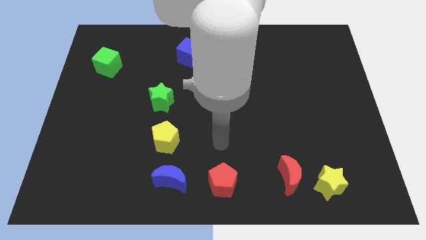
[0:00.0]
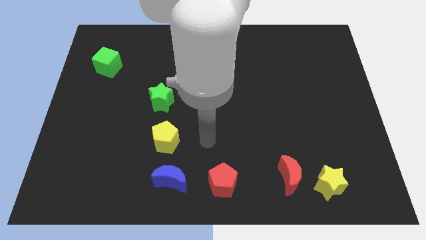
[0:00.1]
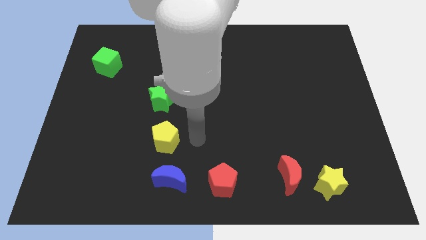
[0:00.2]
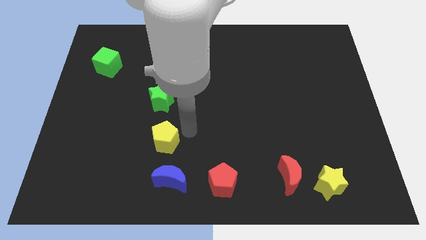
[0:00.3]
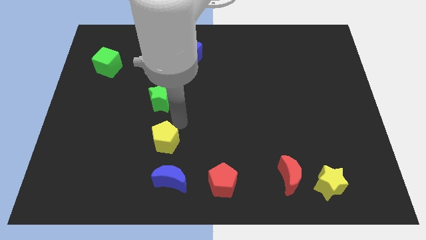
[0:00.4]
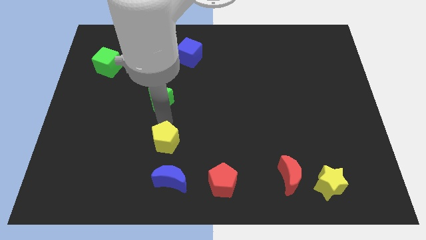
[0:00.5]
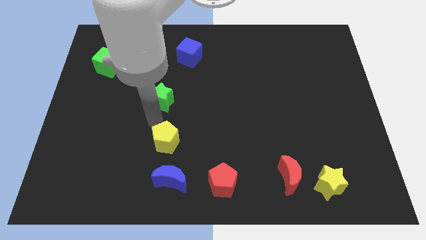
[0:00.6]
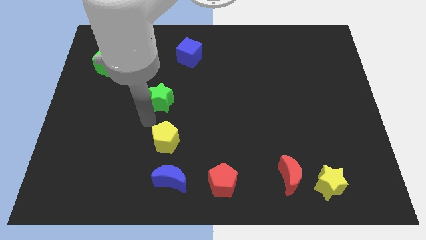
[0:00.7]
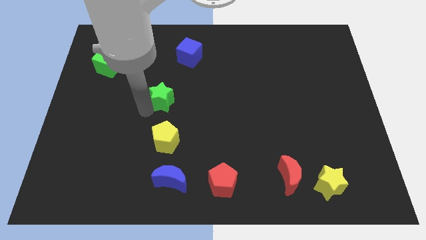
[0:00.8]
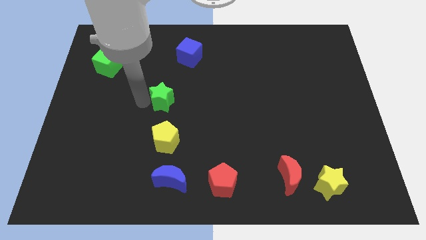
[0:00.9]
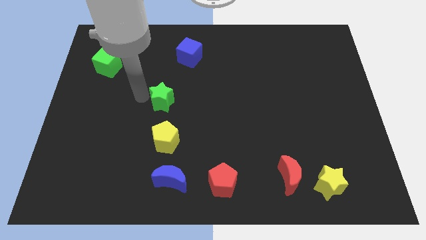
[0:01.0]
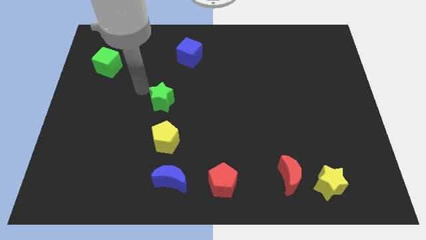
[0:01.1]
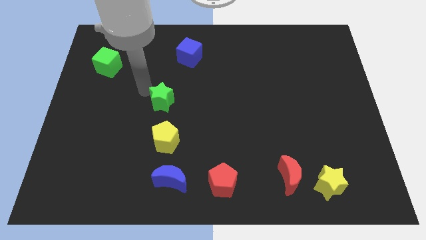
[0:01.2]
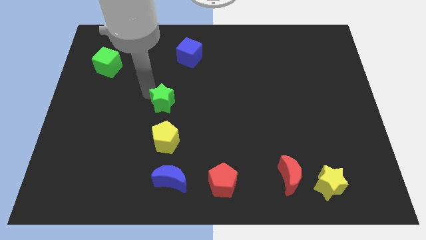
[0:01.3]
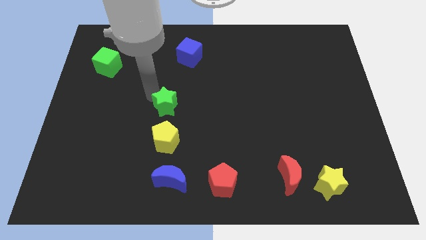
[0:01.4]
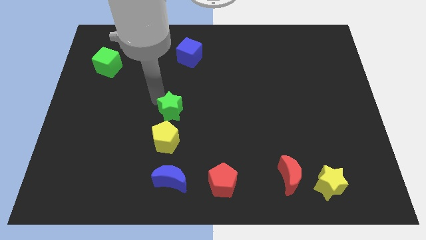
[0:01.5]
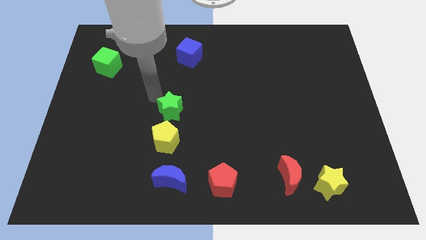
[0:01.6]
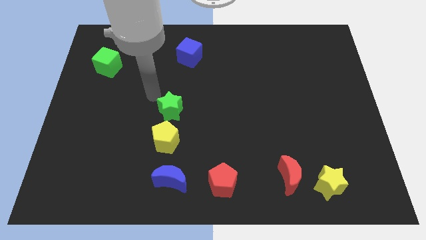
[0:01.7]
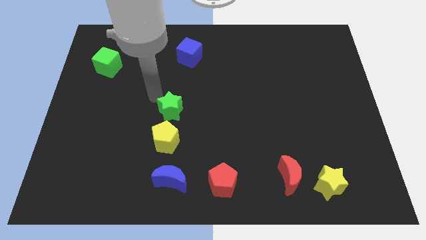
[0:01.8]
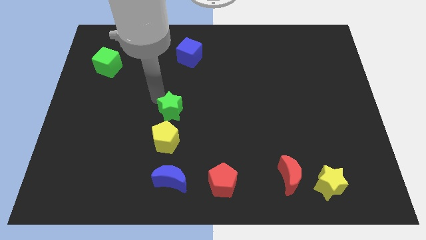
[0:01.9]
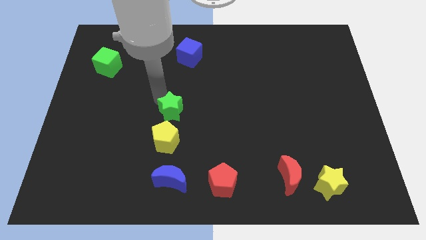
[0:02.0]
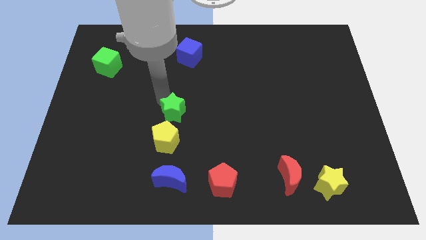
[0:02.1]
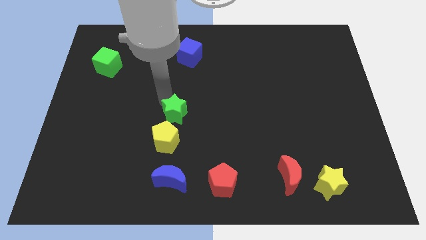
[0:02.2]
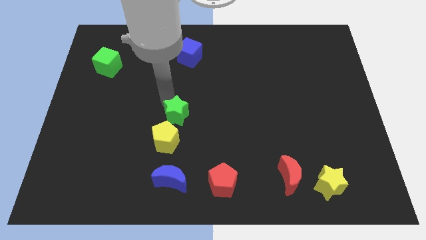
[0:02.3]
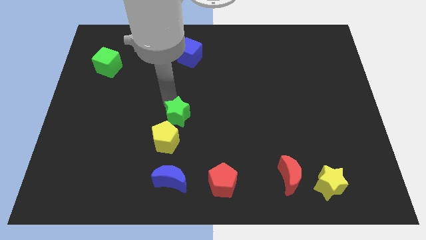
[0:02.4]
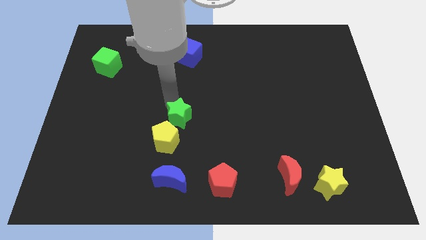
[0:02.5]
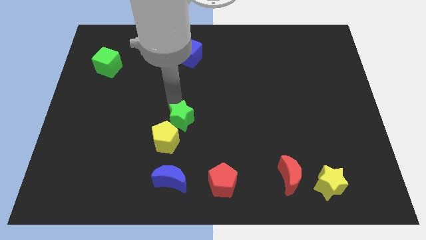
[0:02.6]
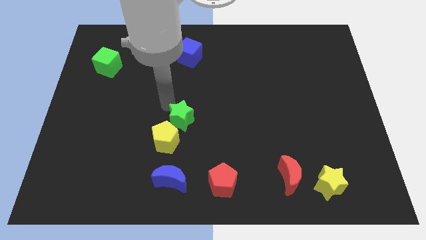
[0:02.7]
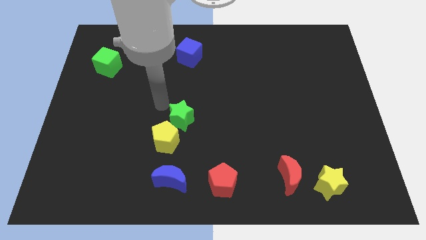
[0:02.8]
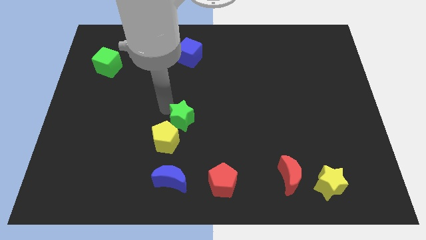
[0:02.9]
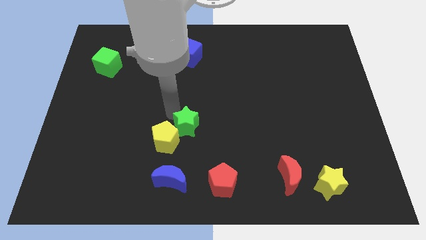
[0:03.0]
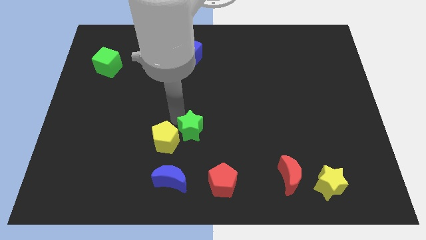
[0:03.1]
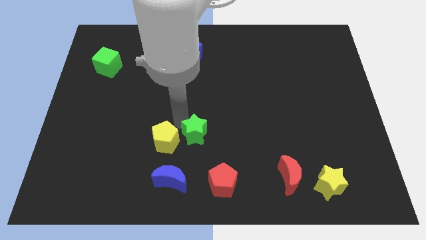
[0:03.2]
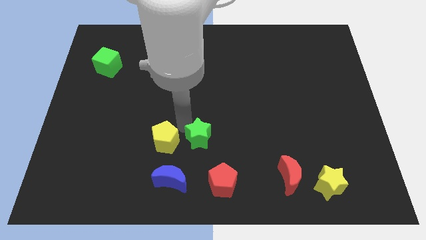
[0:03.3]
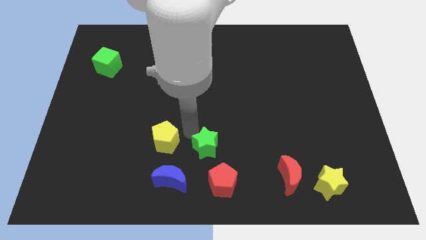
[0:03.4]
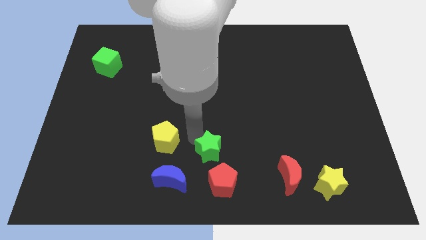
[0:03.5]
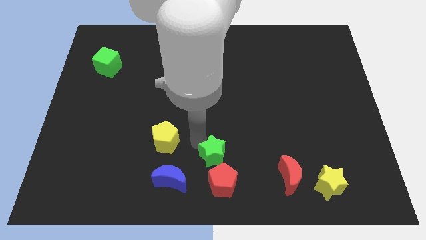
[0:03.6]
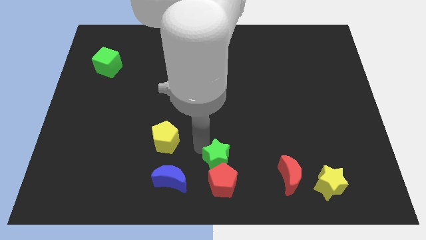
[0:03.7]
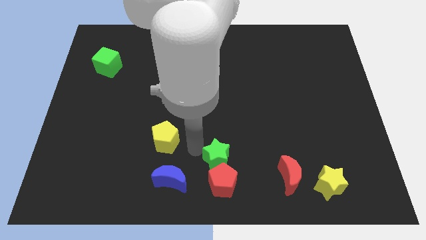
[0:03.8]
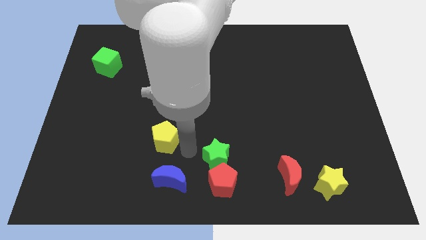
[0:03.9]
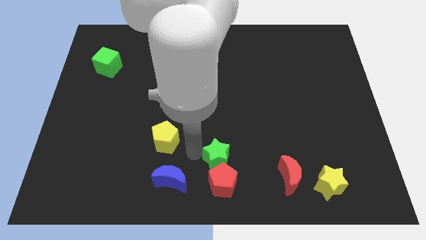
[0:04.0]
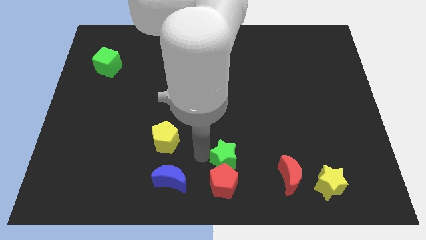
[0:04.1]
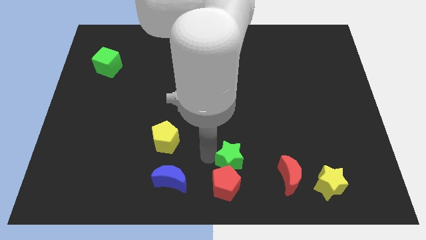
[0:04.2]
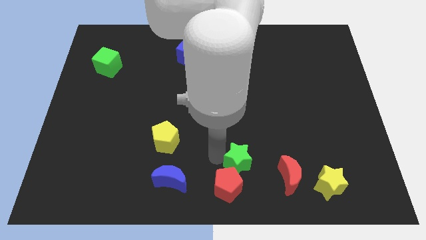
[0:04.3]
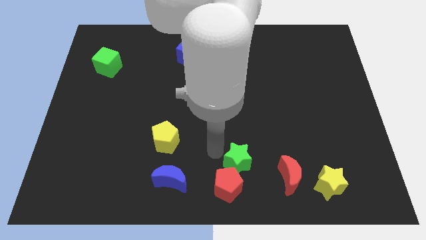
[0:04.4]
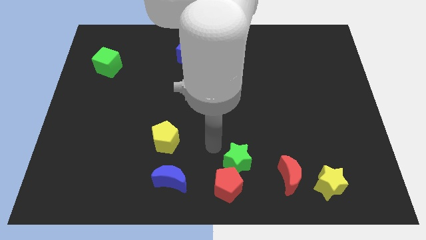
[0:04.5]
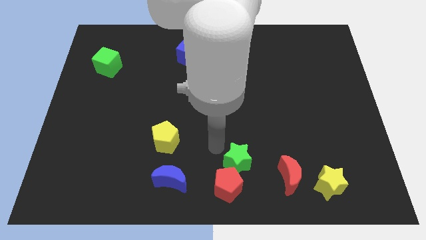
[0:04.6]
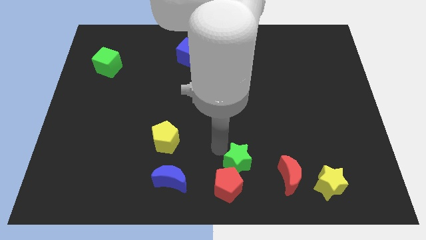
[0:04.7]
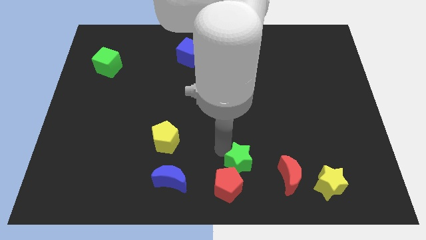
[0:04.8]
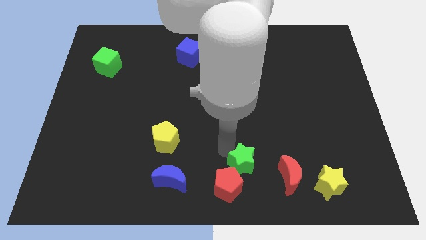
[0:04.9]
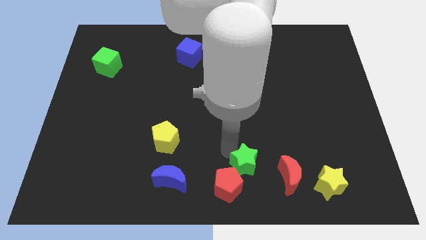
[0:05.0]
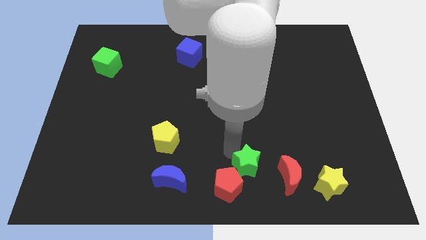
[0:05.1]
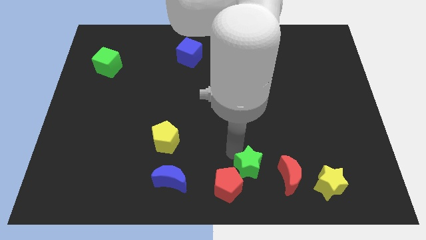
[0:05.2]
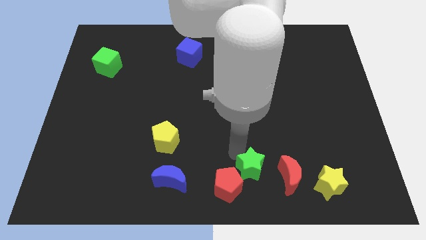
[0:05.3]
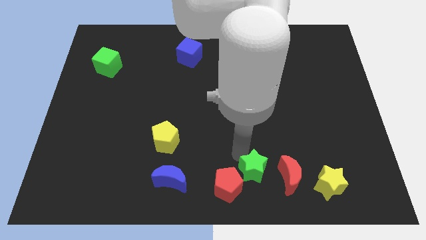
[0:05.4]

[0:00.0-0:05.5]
slide the green star to the left side of the yellow star

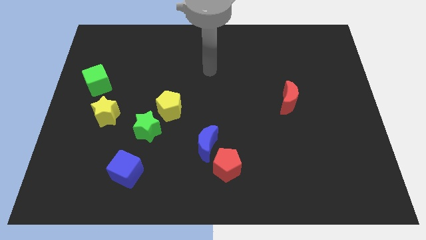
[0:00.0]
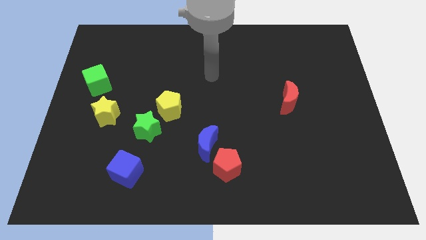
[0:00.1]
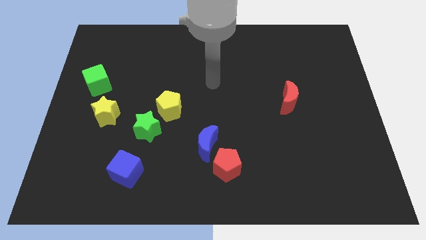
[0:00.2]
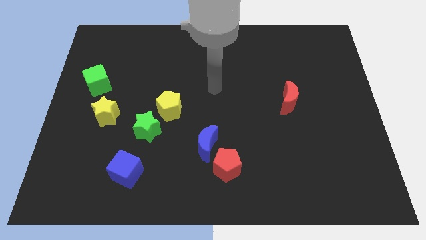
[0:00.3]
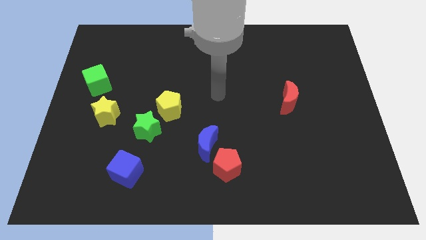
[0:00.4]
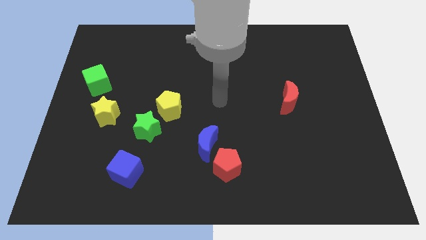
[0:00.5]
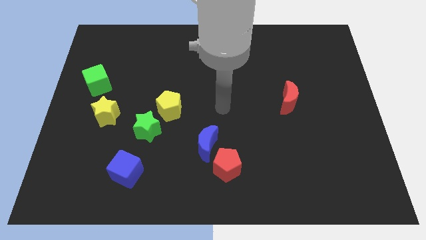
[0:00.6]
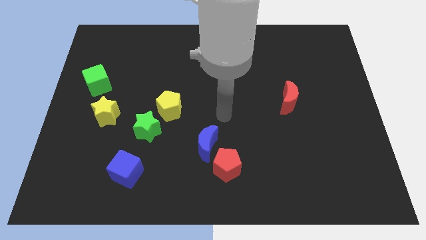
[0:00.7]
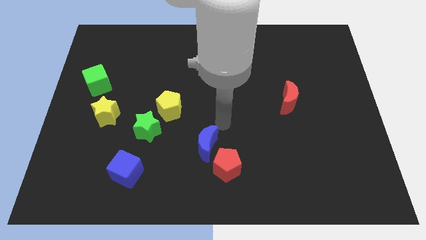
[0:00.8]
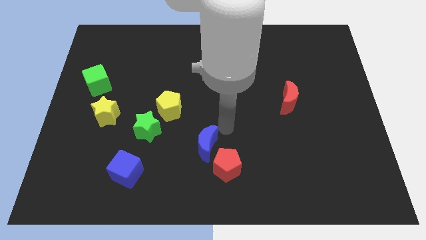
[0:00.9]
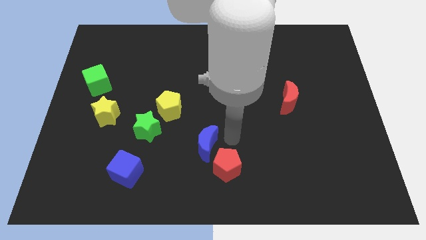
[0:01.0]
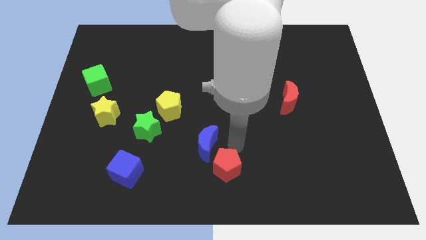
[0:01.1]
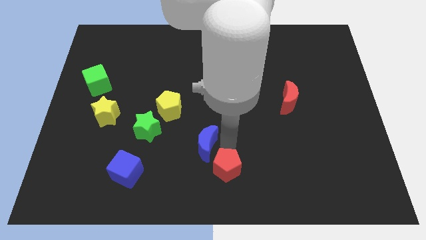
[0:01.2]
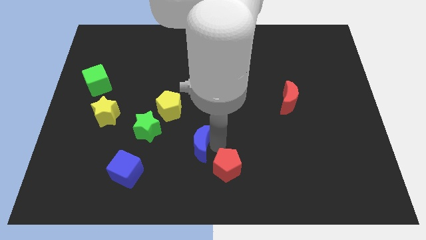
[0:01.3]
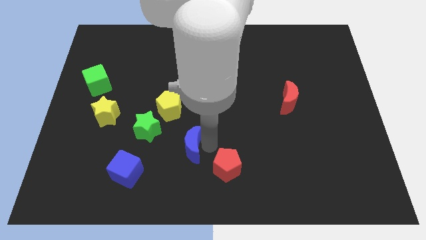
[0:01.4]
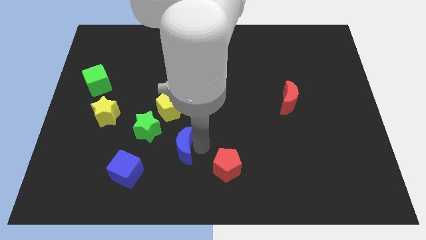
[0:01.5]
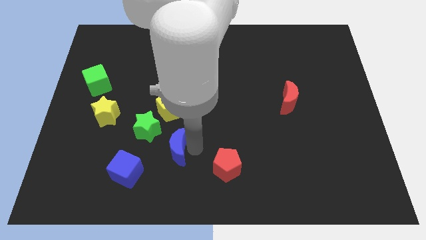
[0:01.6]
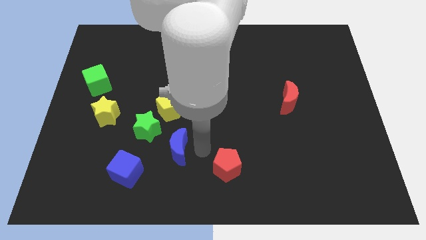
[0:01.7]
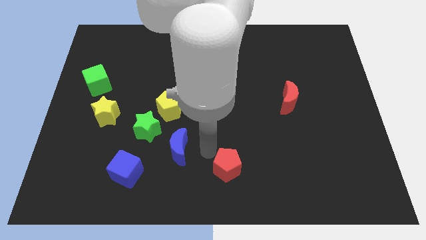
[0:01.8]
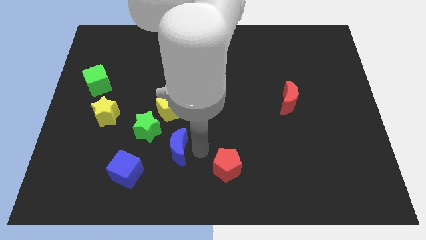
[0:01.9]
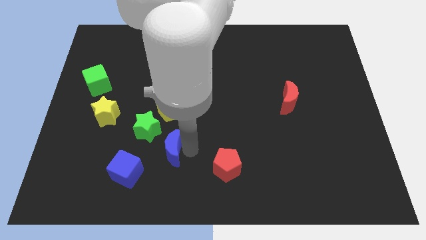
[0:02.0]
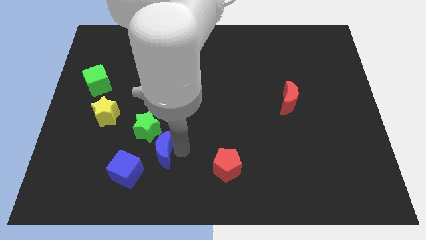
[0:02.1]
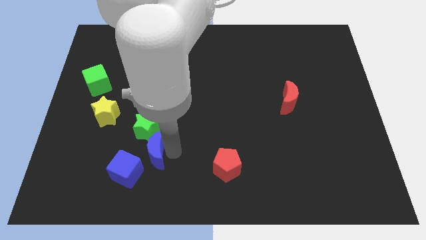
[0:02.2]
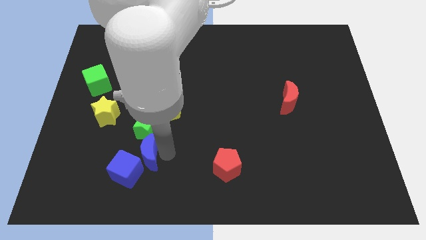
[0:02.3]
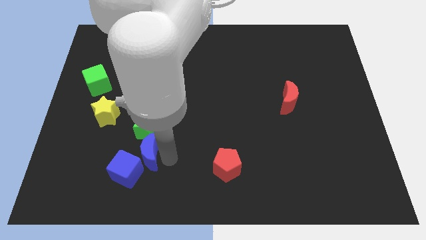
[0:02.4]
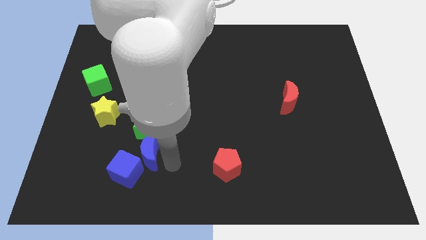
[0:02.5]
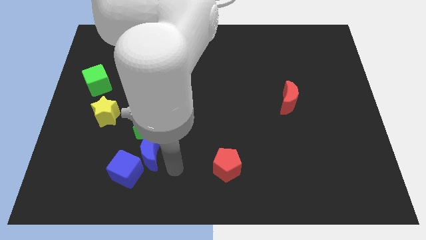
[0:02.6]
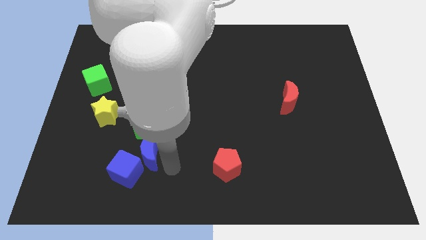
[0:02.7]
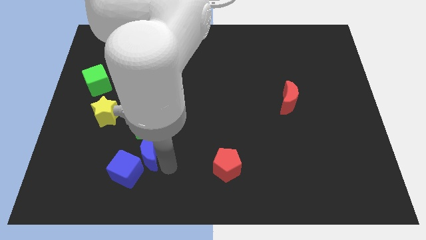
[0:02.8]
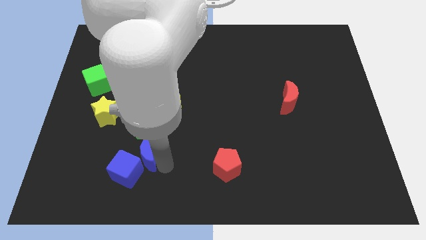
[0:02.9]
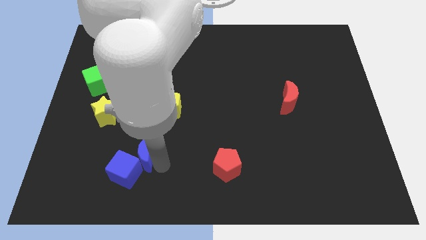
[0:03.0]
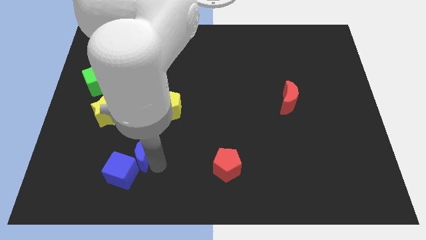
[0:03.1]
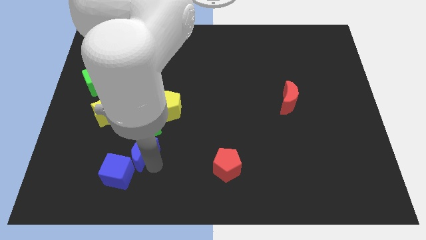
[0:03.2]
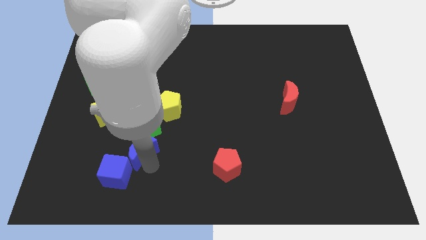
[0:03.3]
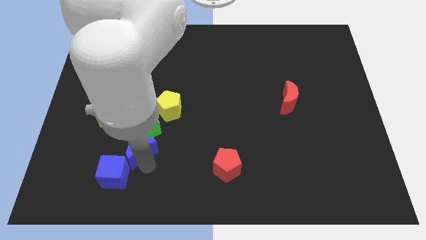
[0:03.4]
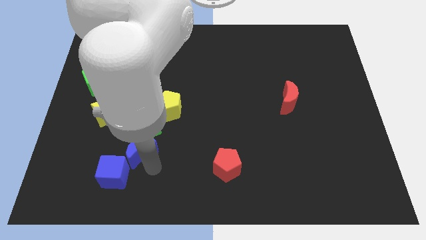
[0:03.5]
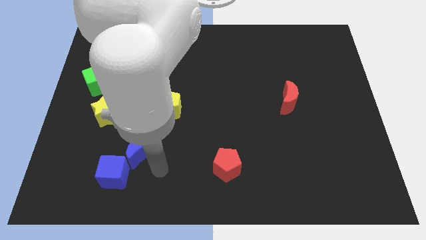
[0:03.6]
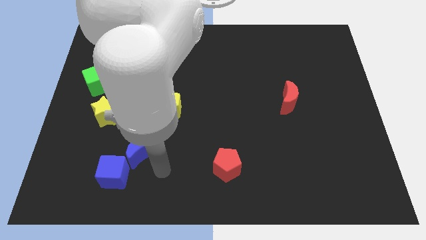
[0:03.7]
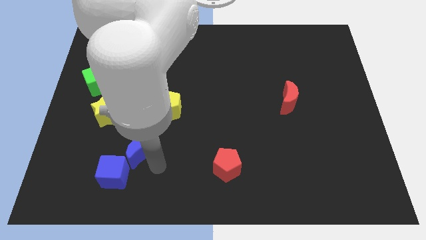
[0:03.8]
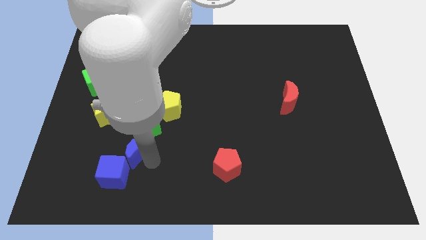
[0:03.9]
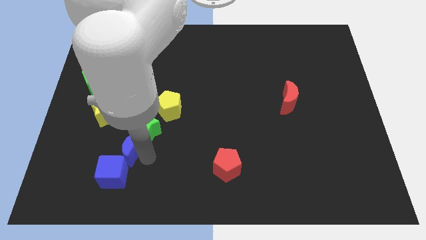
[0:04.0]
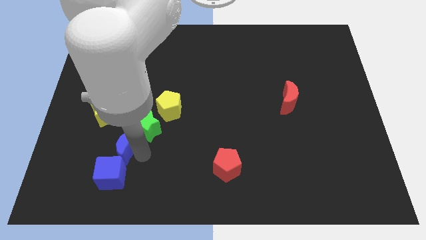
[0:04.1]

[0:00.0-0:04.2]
put the blue moon left of the green star
